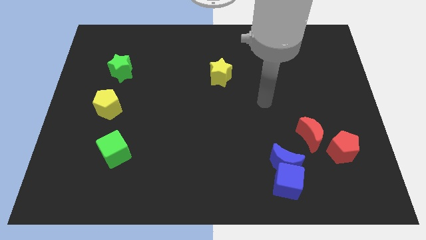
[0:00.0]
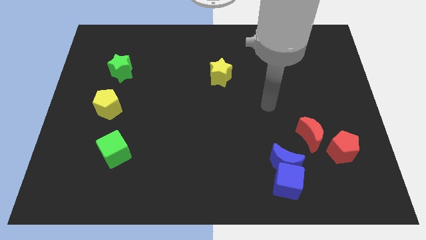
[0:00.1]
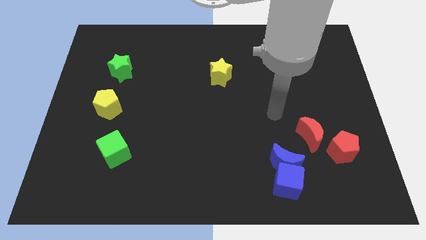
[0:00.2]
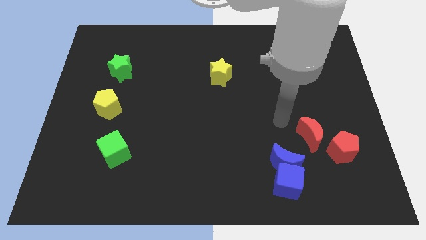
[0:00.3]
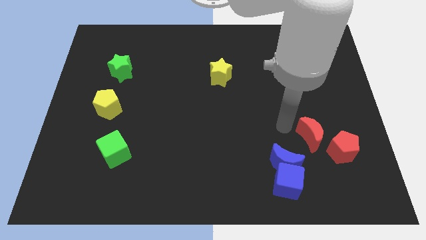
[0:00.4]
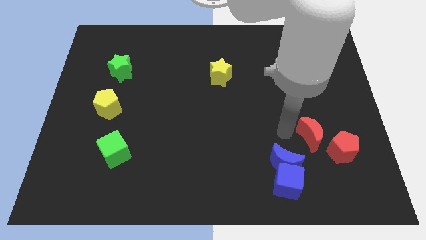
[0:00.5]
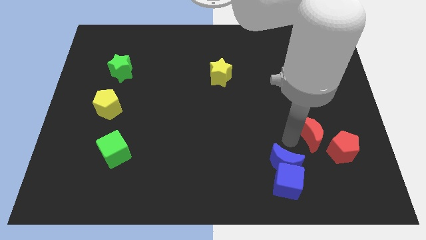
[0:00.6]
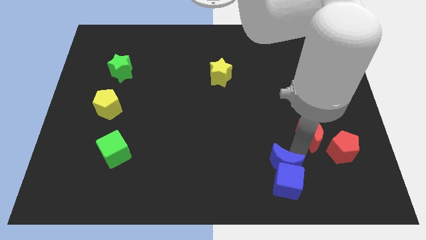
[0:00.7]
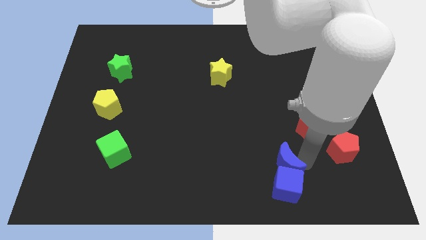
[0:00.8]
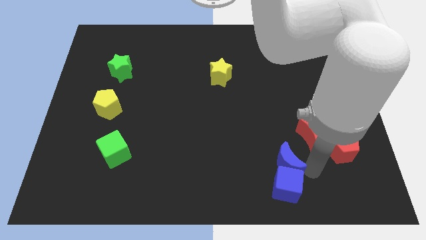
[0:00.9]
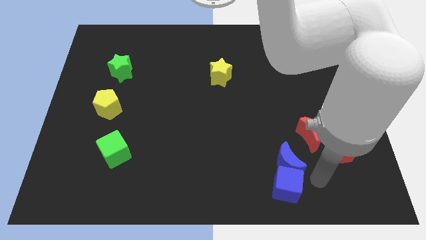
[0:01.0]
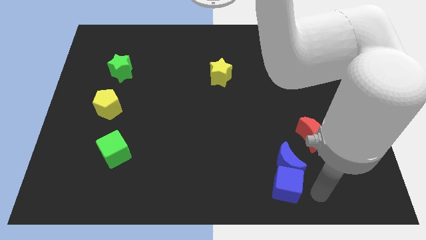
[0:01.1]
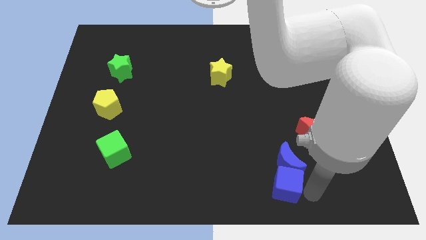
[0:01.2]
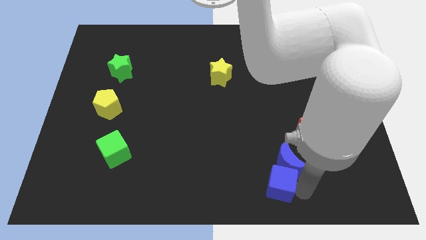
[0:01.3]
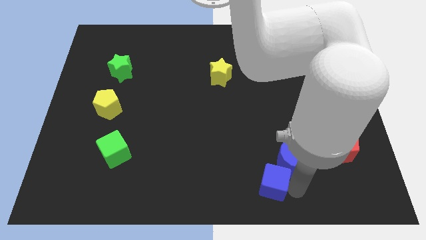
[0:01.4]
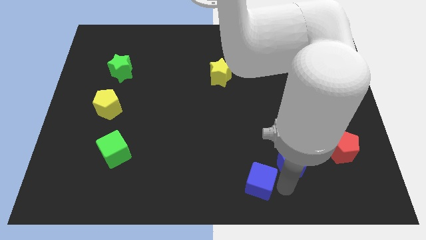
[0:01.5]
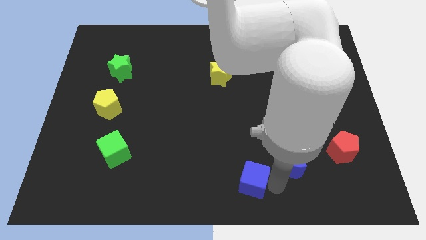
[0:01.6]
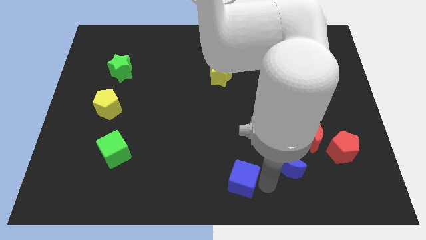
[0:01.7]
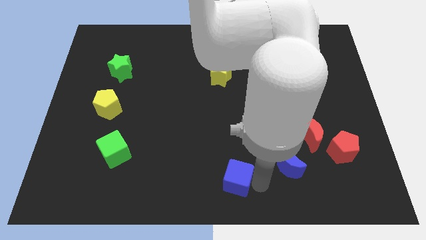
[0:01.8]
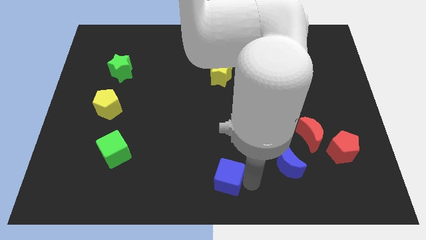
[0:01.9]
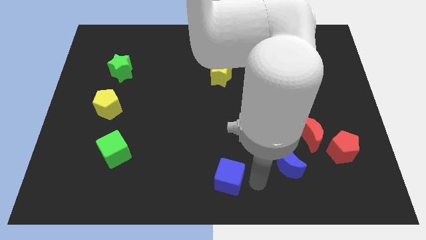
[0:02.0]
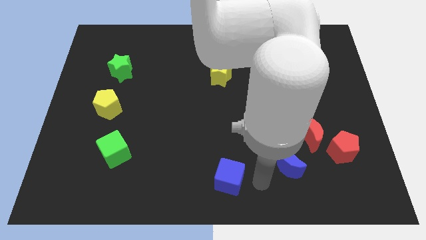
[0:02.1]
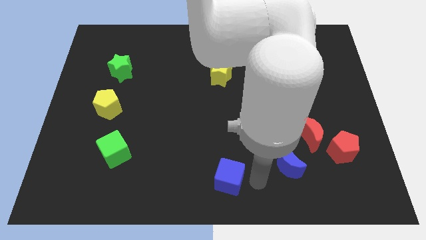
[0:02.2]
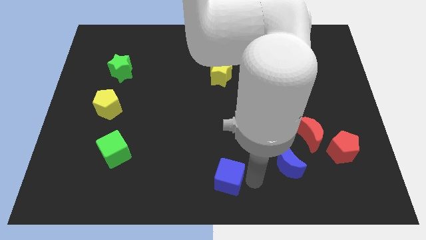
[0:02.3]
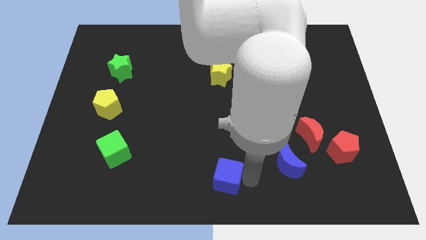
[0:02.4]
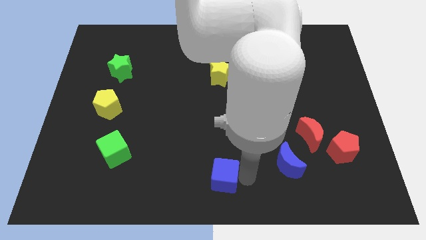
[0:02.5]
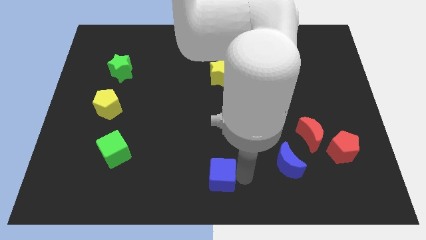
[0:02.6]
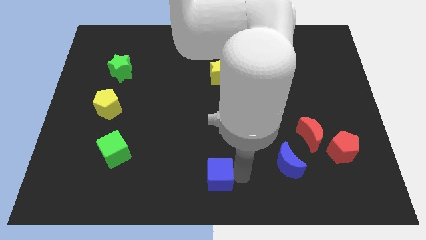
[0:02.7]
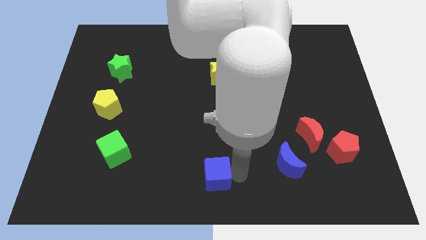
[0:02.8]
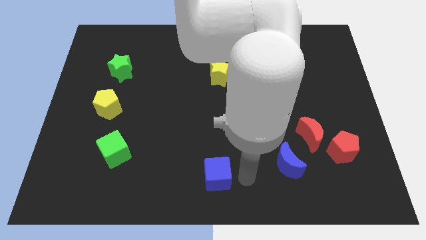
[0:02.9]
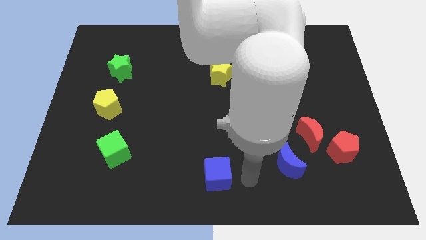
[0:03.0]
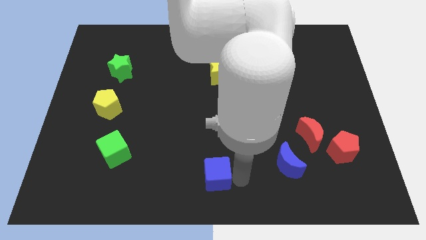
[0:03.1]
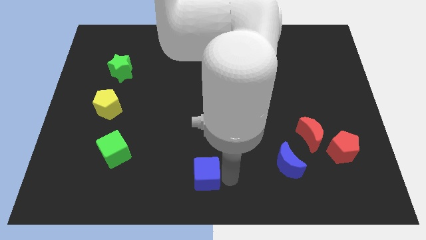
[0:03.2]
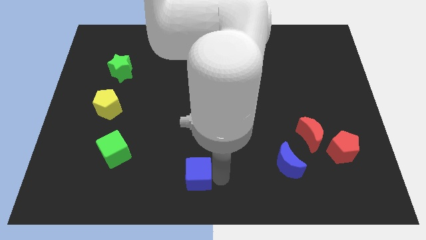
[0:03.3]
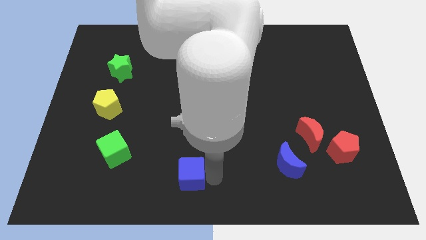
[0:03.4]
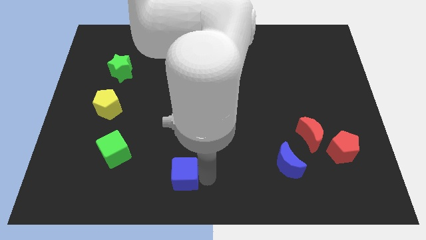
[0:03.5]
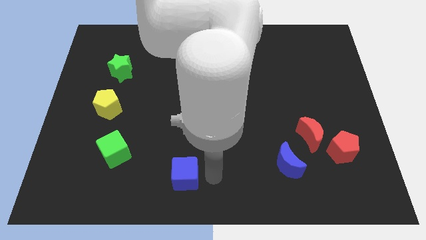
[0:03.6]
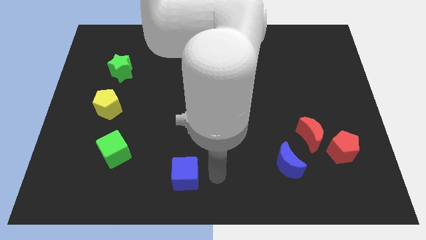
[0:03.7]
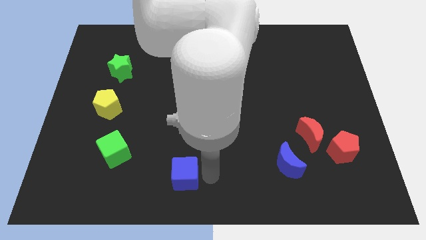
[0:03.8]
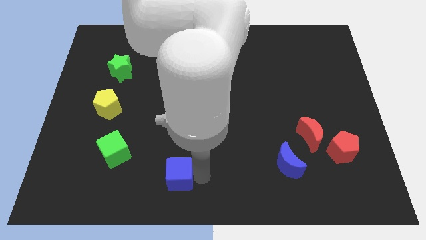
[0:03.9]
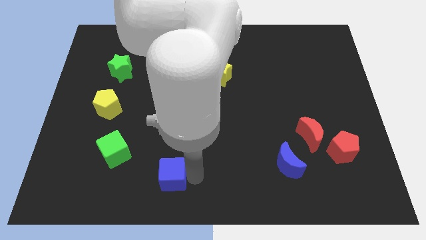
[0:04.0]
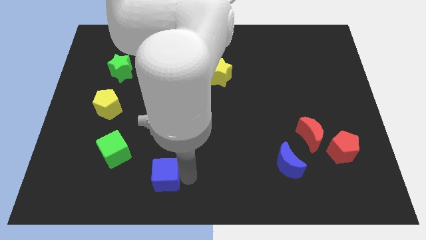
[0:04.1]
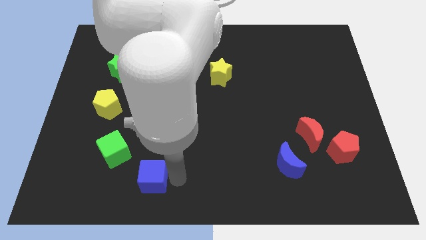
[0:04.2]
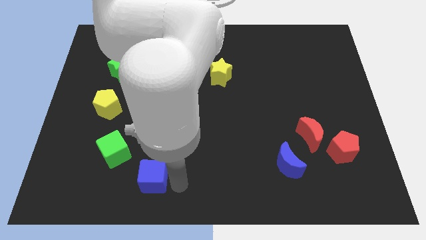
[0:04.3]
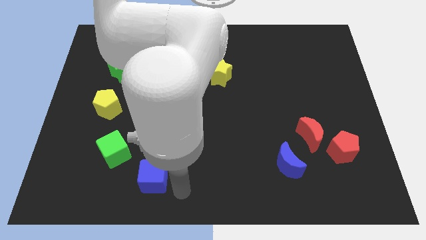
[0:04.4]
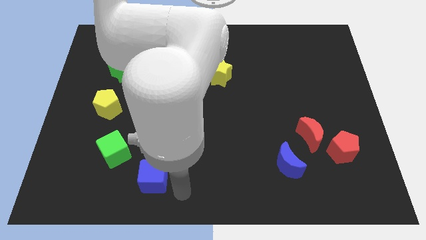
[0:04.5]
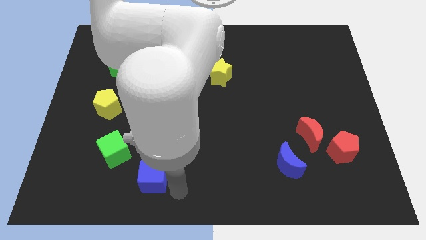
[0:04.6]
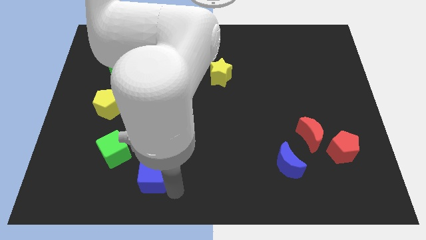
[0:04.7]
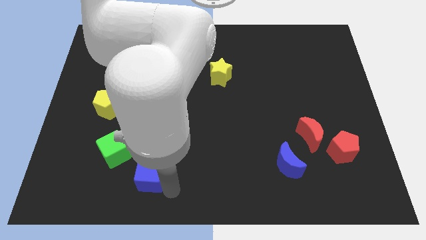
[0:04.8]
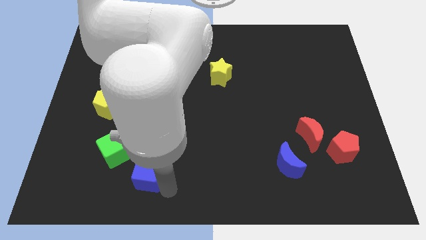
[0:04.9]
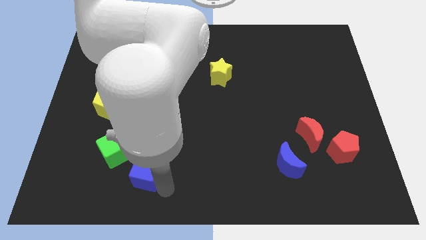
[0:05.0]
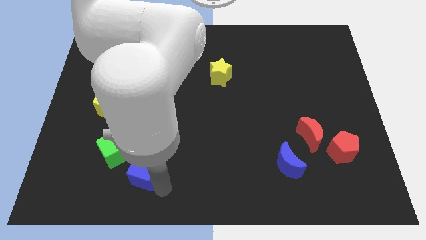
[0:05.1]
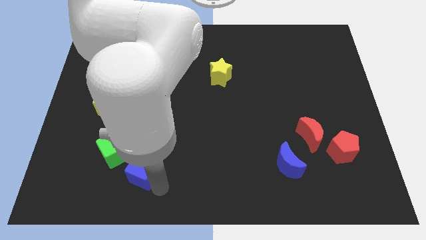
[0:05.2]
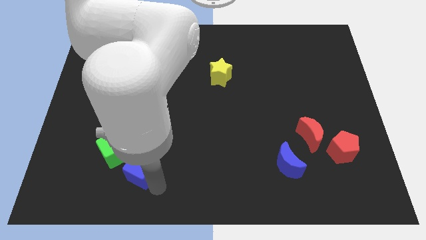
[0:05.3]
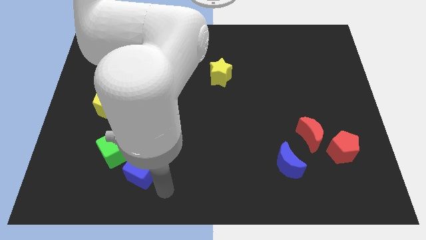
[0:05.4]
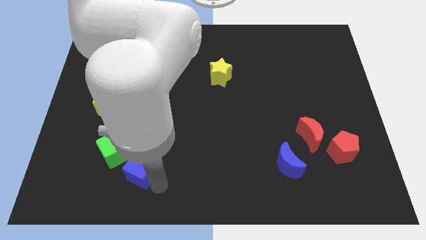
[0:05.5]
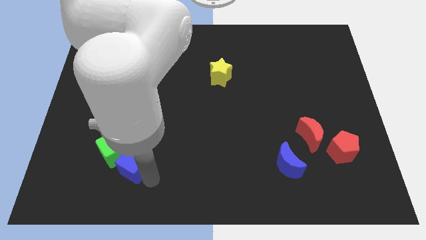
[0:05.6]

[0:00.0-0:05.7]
slide the blue cube towards the green cube

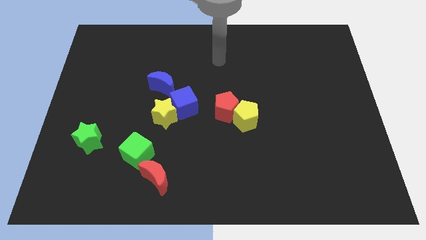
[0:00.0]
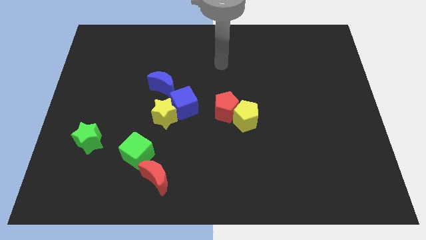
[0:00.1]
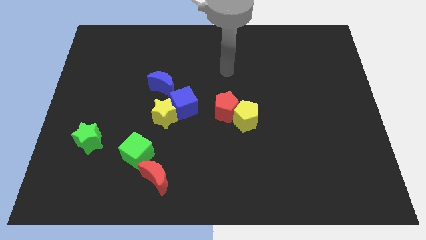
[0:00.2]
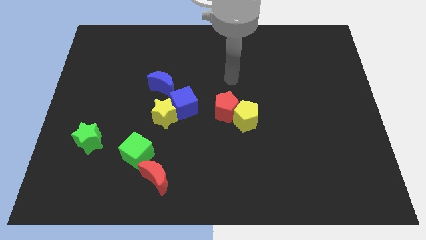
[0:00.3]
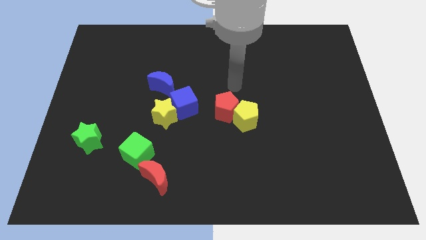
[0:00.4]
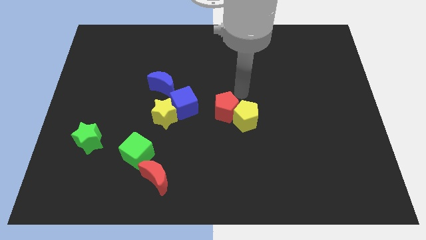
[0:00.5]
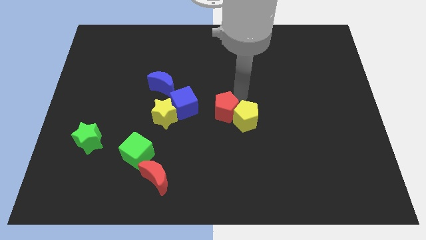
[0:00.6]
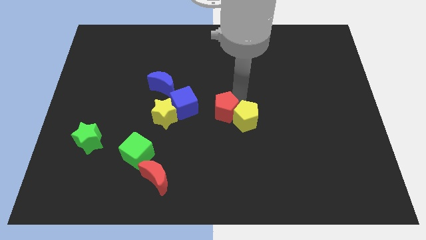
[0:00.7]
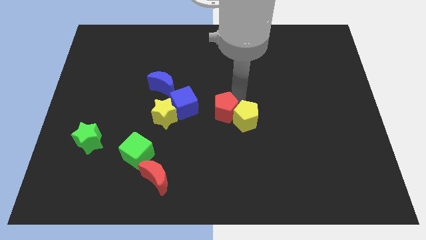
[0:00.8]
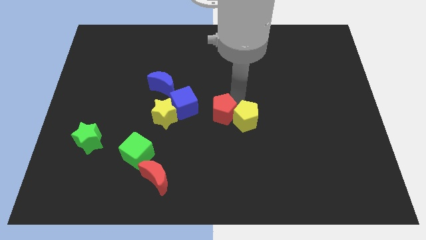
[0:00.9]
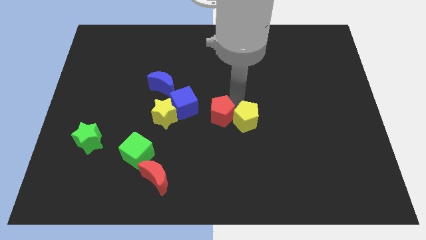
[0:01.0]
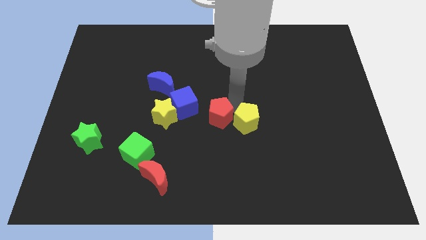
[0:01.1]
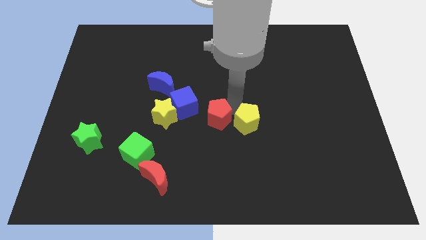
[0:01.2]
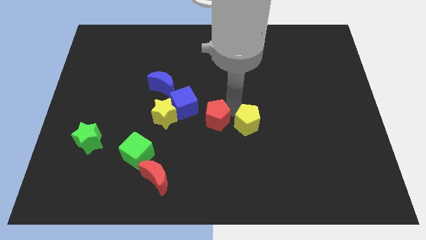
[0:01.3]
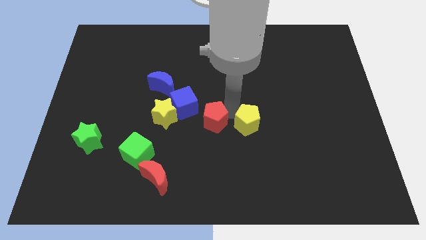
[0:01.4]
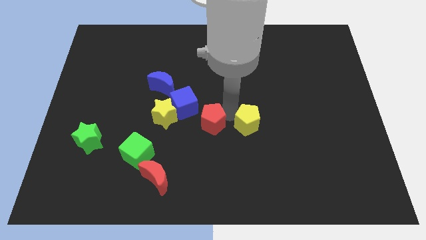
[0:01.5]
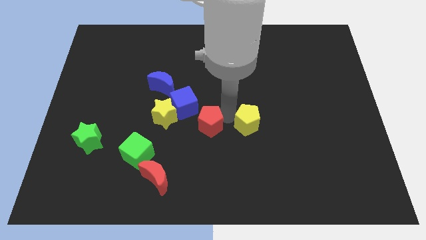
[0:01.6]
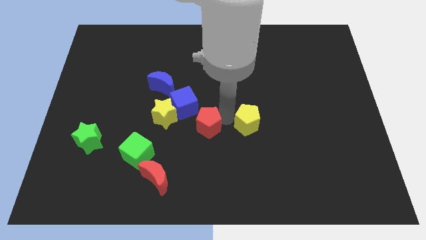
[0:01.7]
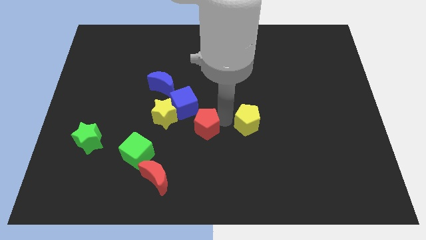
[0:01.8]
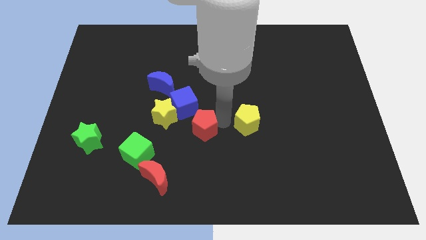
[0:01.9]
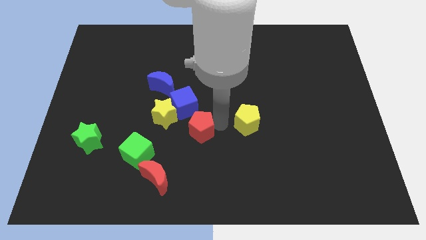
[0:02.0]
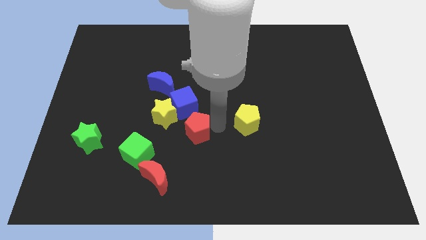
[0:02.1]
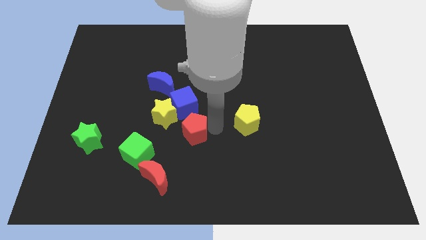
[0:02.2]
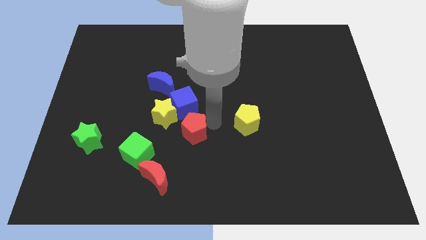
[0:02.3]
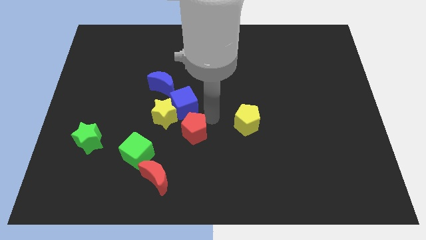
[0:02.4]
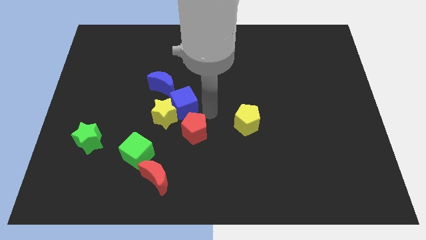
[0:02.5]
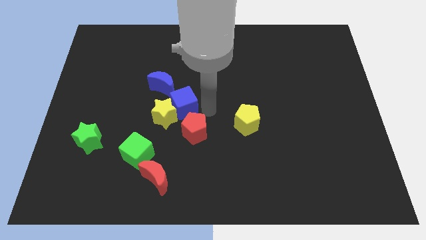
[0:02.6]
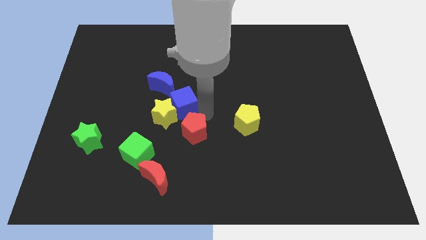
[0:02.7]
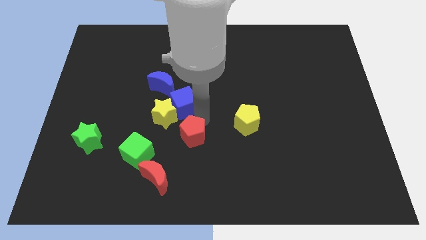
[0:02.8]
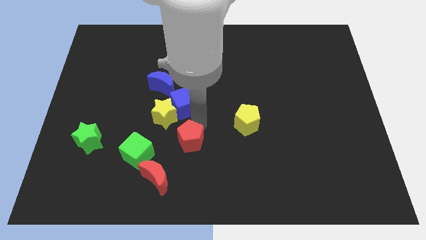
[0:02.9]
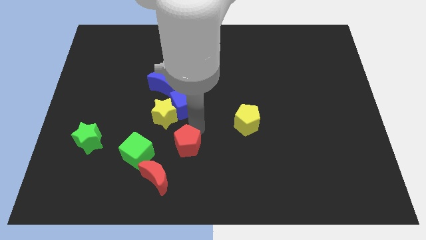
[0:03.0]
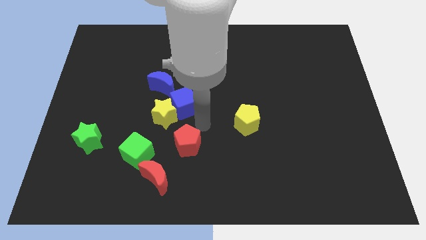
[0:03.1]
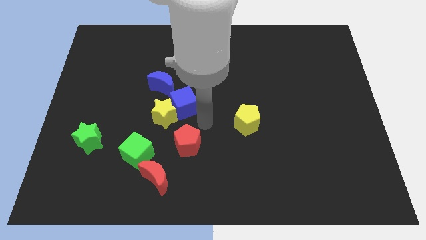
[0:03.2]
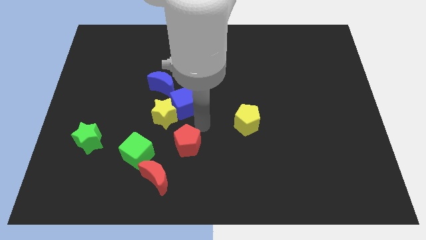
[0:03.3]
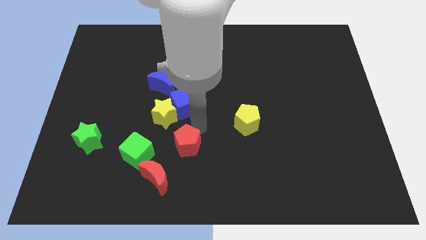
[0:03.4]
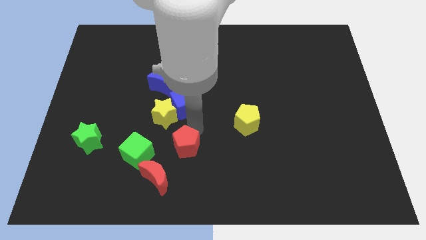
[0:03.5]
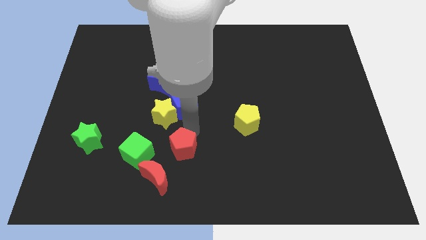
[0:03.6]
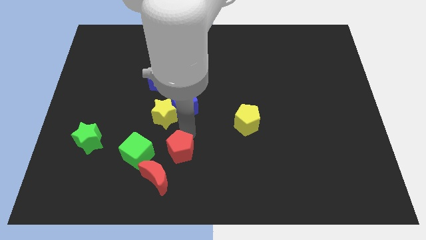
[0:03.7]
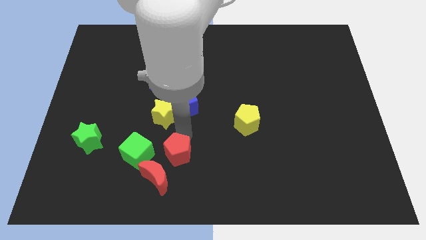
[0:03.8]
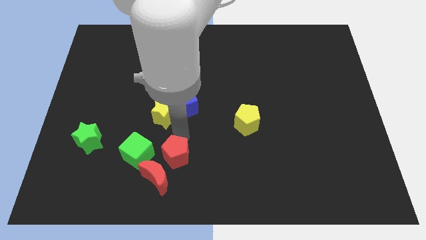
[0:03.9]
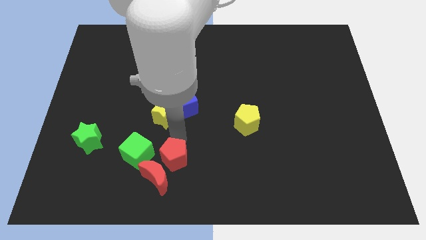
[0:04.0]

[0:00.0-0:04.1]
move the red pentagon next to the red moon
